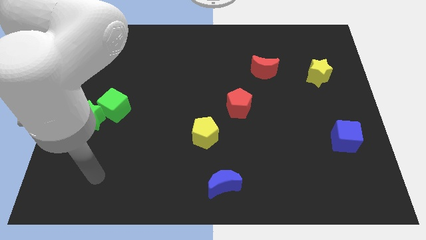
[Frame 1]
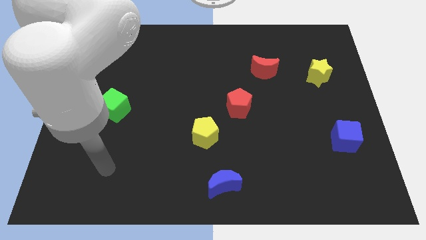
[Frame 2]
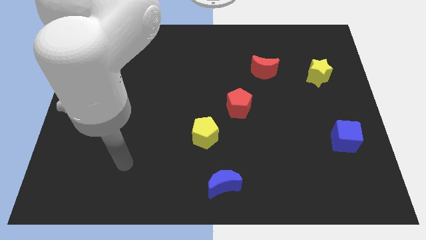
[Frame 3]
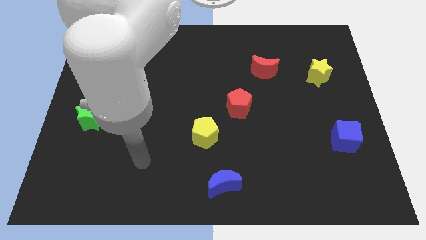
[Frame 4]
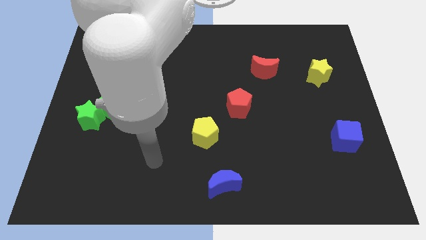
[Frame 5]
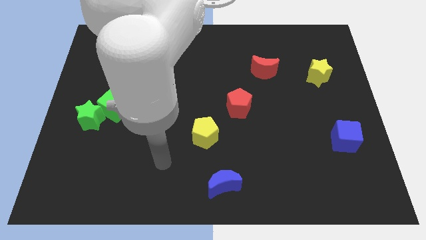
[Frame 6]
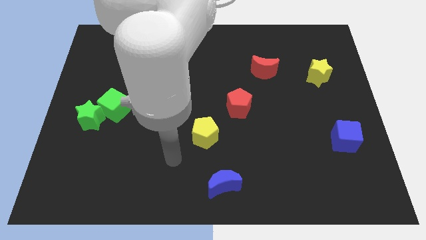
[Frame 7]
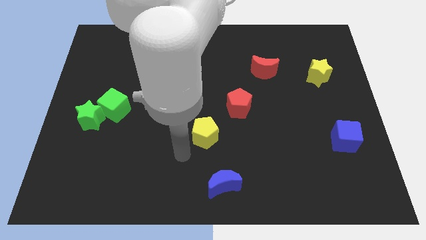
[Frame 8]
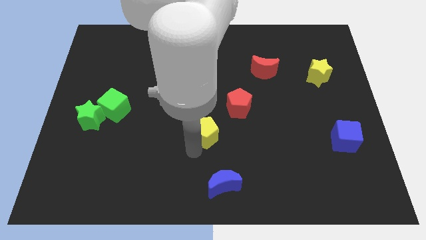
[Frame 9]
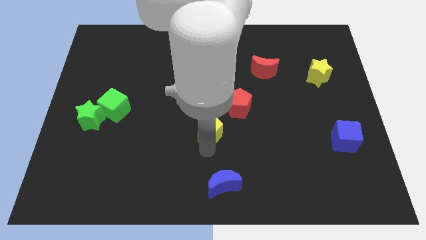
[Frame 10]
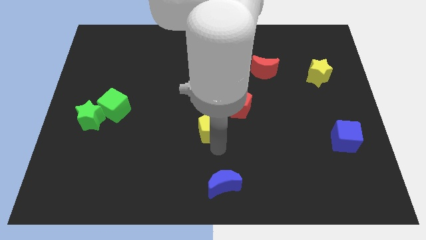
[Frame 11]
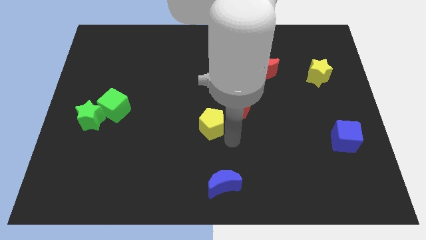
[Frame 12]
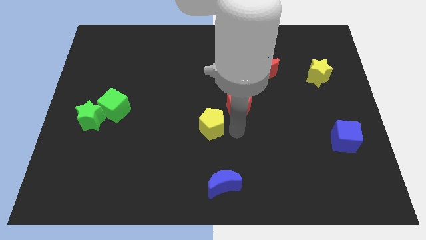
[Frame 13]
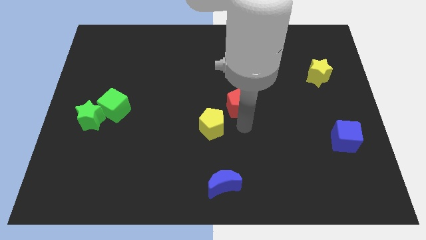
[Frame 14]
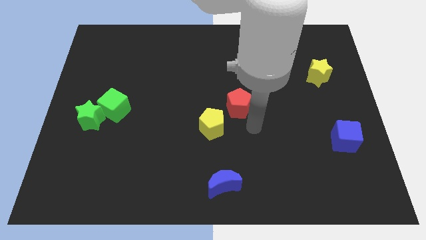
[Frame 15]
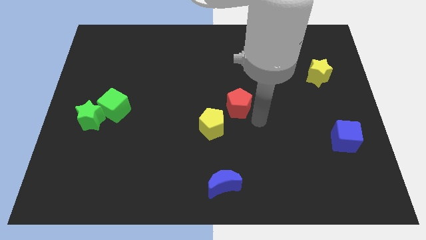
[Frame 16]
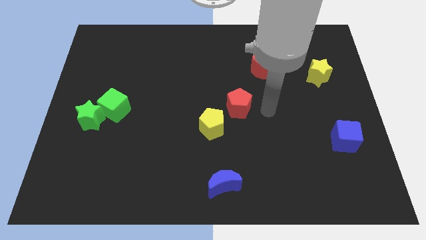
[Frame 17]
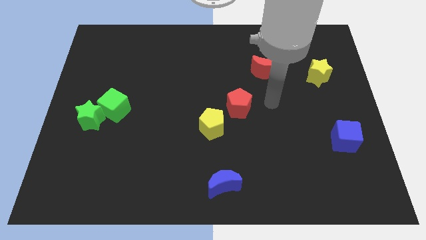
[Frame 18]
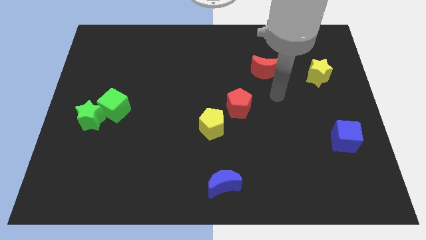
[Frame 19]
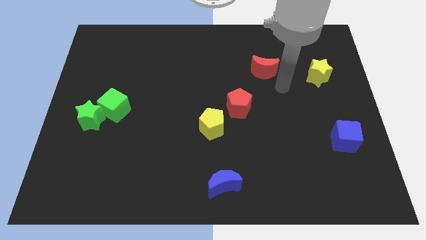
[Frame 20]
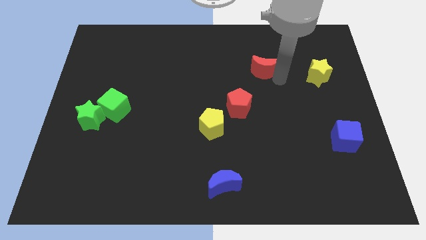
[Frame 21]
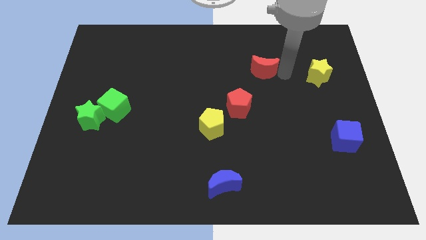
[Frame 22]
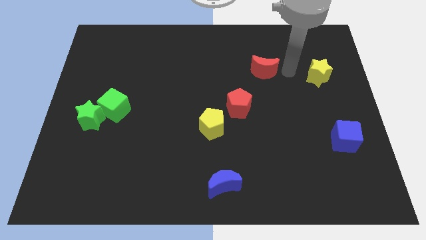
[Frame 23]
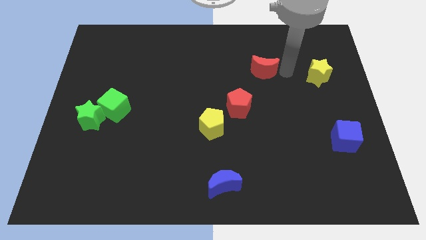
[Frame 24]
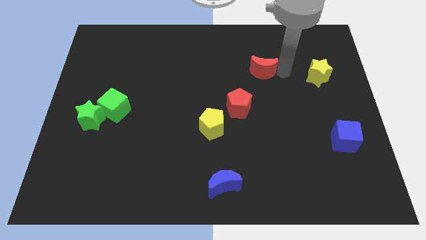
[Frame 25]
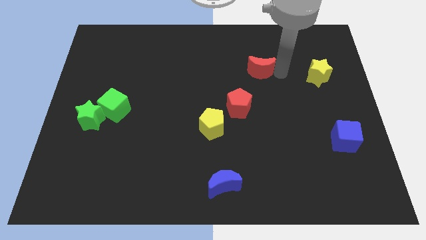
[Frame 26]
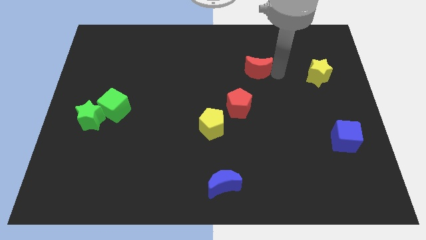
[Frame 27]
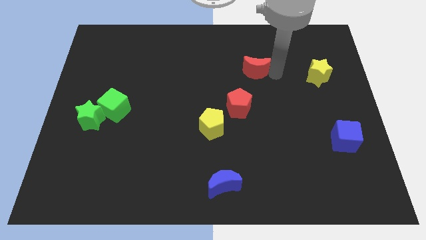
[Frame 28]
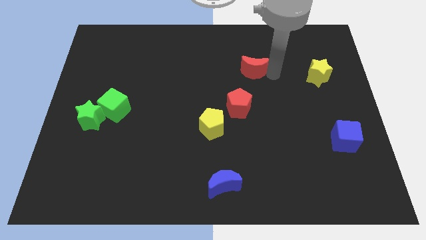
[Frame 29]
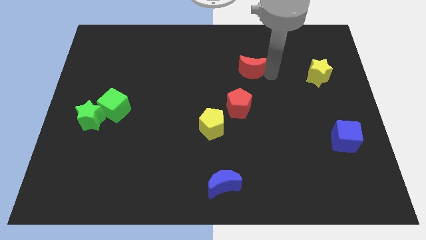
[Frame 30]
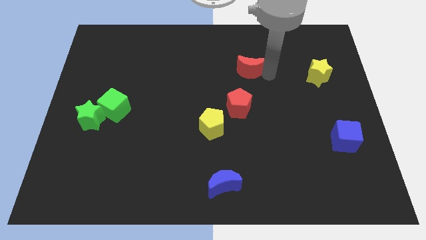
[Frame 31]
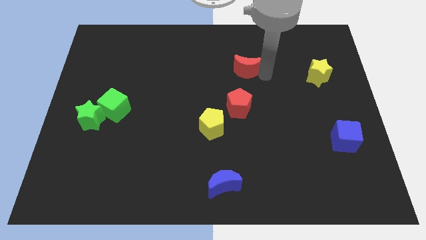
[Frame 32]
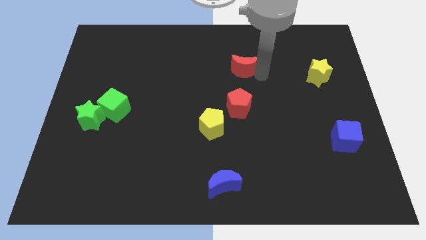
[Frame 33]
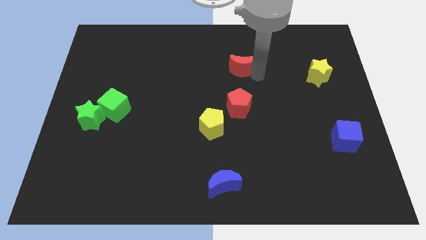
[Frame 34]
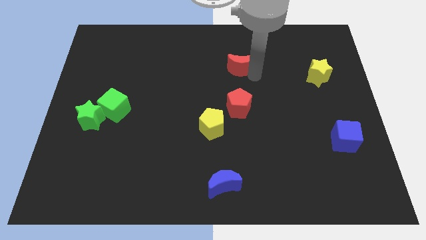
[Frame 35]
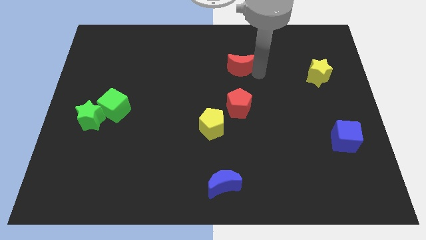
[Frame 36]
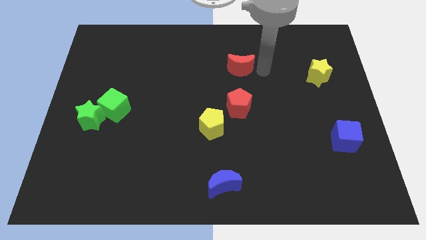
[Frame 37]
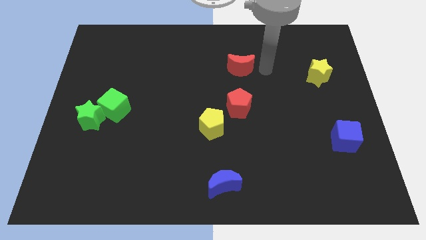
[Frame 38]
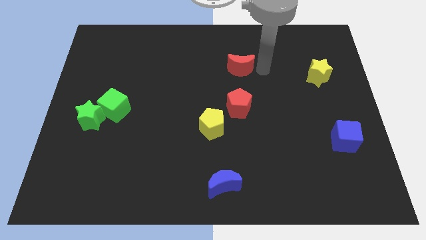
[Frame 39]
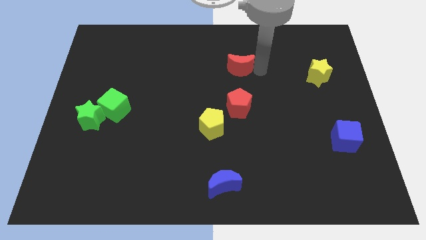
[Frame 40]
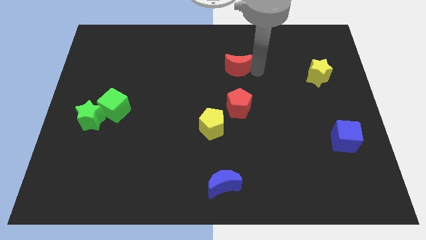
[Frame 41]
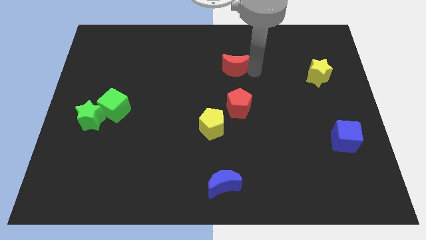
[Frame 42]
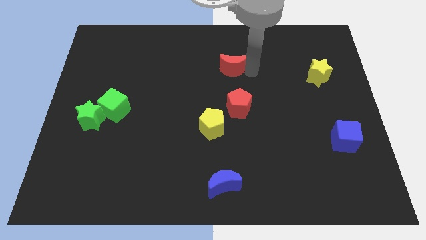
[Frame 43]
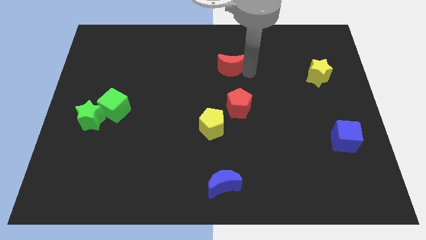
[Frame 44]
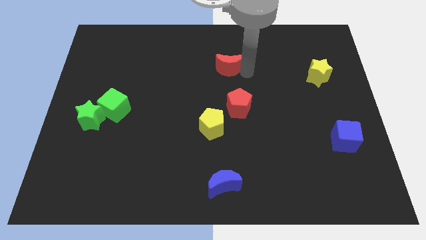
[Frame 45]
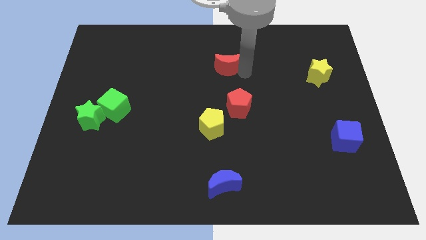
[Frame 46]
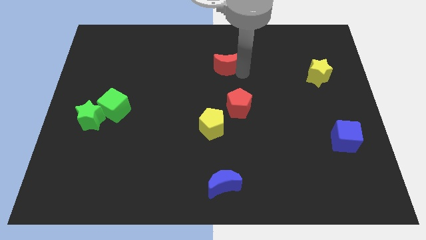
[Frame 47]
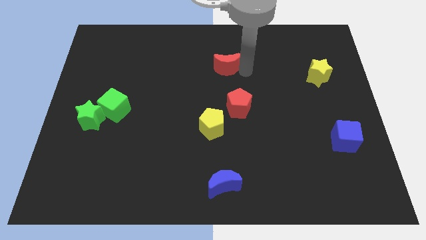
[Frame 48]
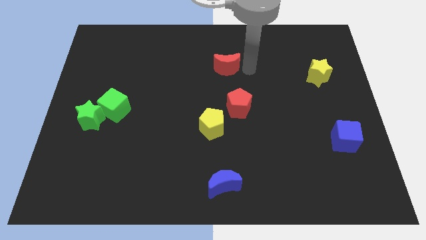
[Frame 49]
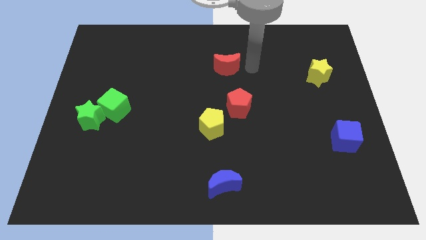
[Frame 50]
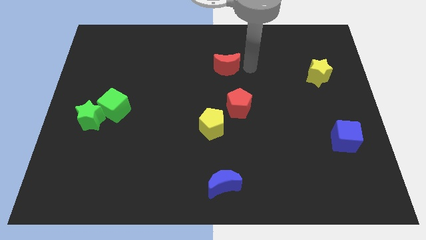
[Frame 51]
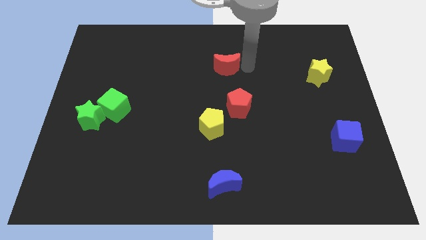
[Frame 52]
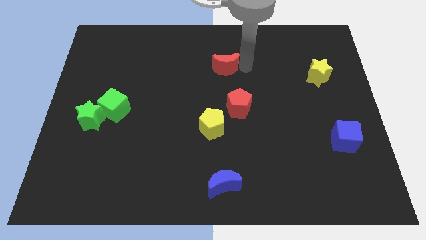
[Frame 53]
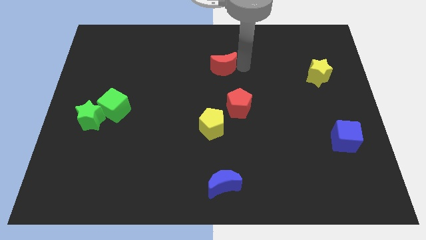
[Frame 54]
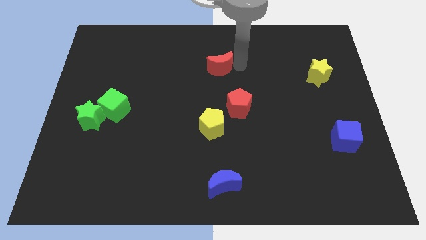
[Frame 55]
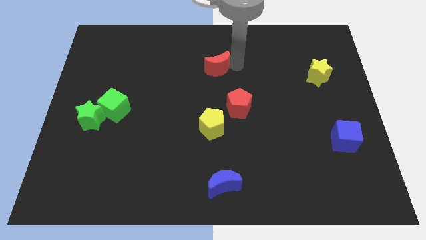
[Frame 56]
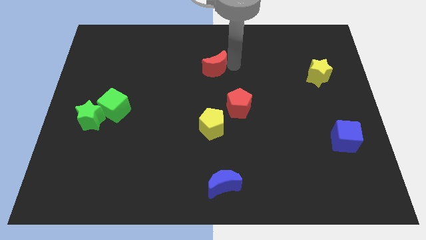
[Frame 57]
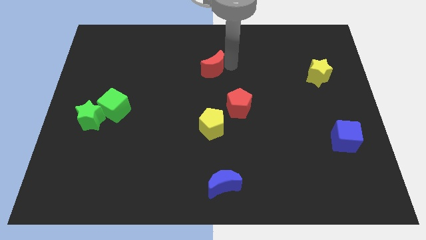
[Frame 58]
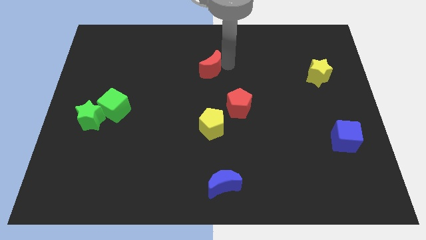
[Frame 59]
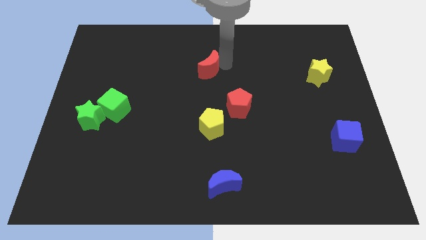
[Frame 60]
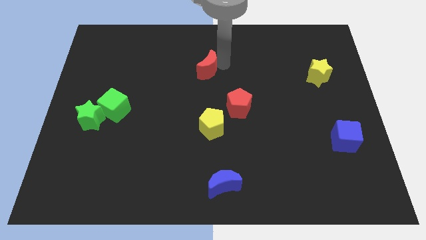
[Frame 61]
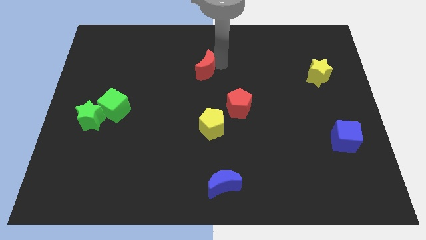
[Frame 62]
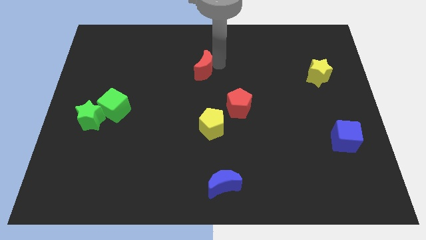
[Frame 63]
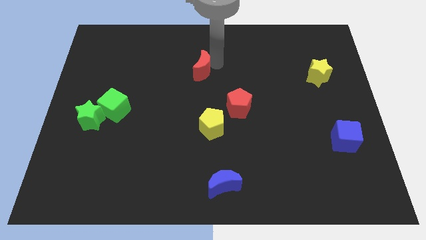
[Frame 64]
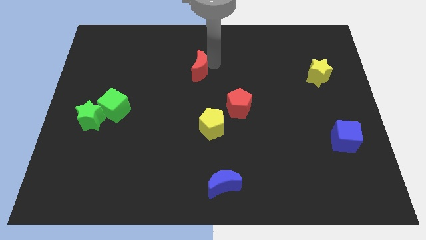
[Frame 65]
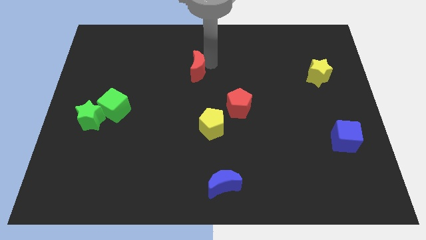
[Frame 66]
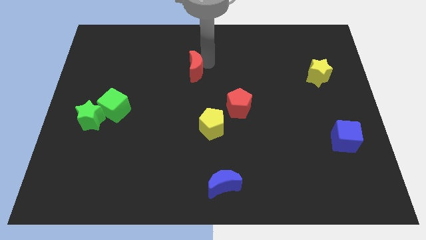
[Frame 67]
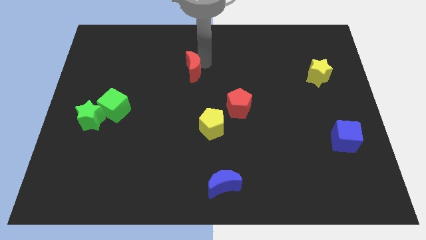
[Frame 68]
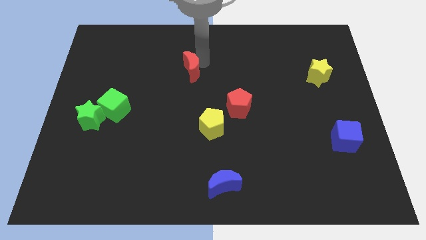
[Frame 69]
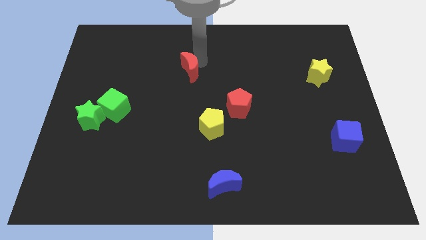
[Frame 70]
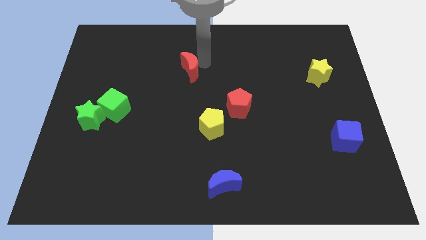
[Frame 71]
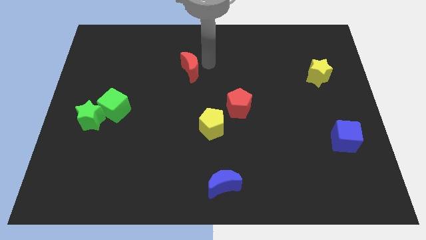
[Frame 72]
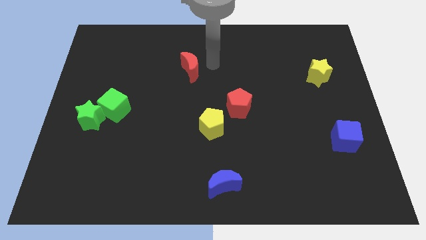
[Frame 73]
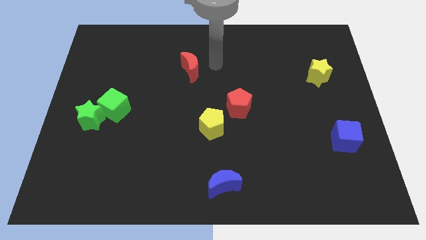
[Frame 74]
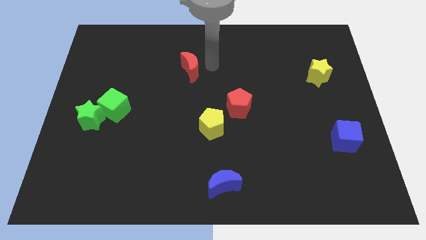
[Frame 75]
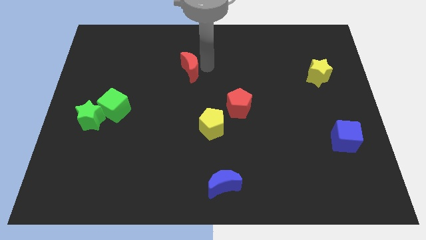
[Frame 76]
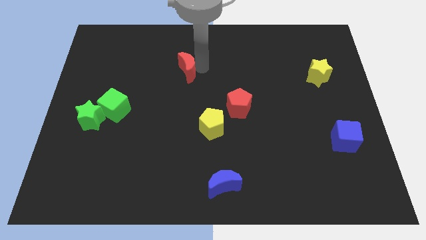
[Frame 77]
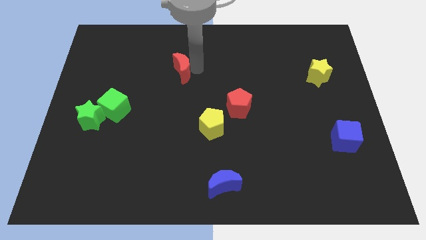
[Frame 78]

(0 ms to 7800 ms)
slide the red moon to the left

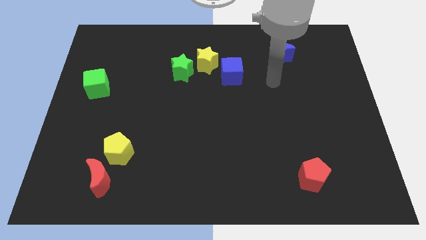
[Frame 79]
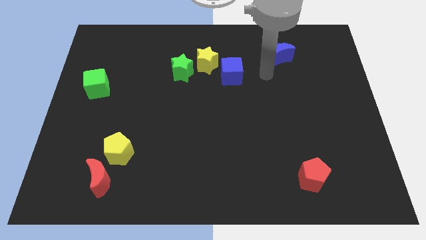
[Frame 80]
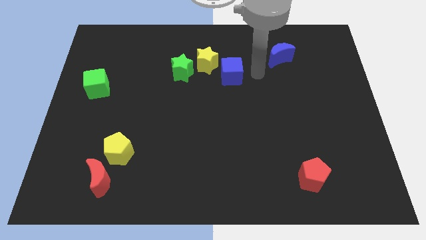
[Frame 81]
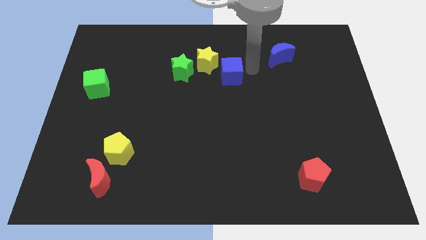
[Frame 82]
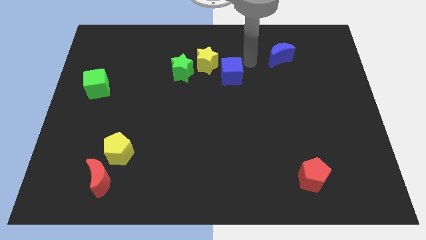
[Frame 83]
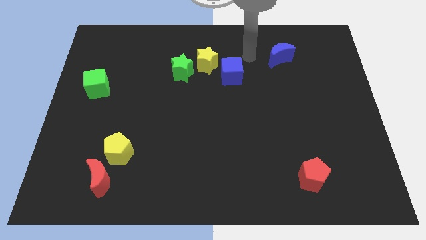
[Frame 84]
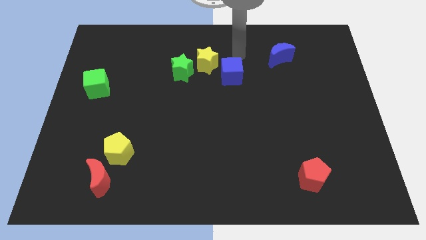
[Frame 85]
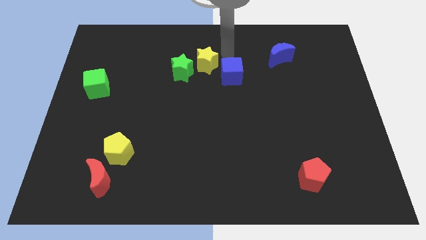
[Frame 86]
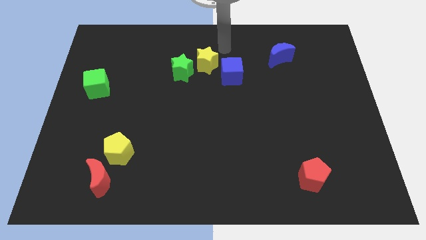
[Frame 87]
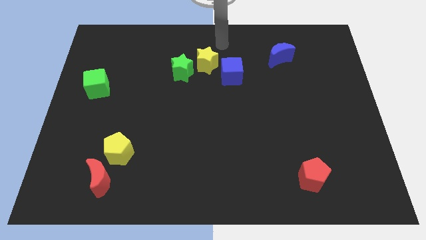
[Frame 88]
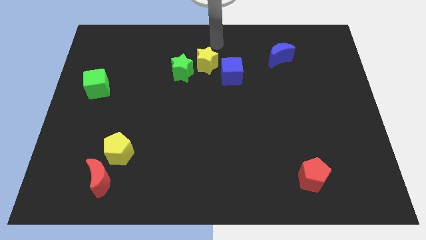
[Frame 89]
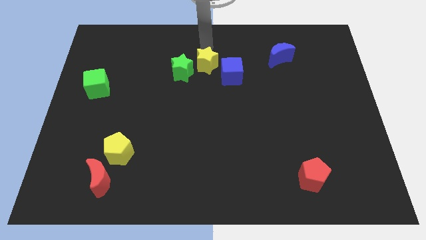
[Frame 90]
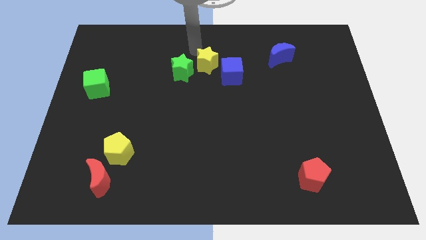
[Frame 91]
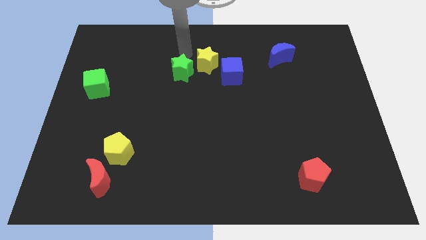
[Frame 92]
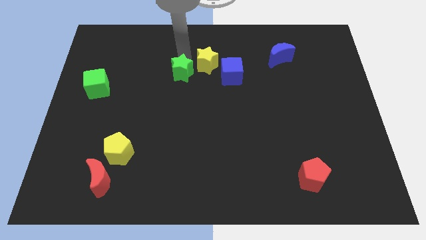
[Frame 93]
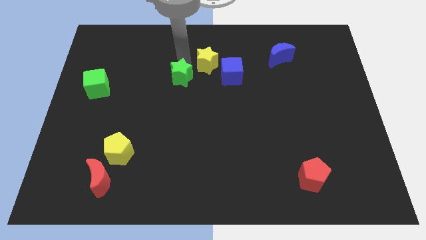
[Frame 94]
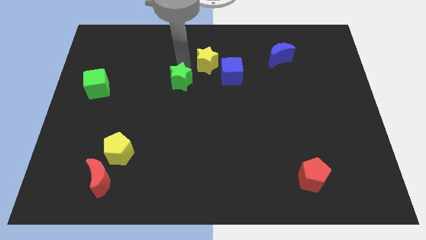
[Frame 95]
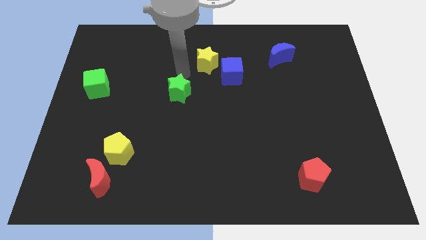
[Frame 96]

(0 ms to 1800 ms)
push the green star a little bit downwards
